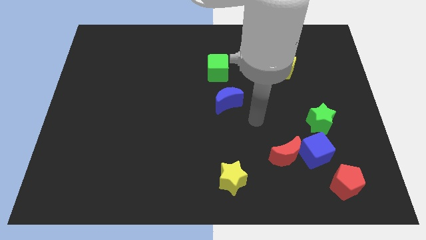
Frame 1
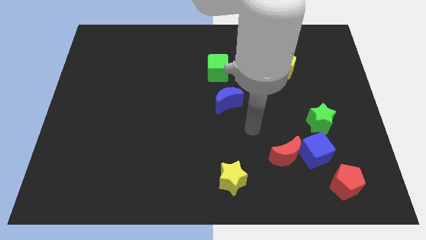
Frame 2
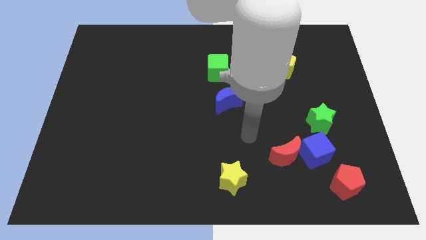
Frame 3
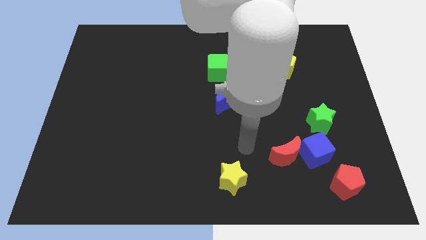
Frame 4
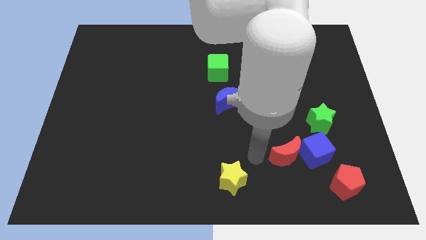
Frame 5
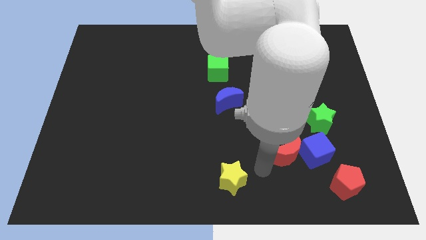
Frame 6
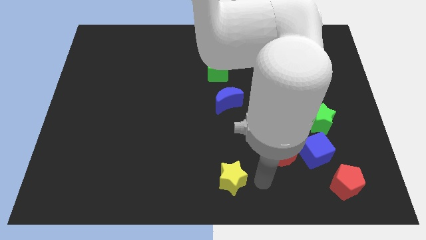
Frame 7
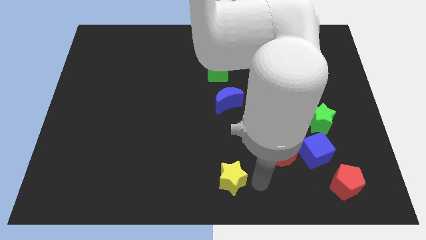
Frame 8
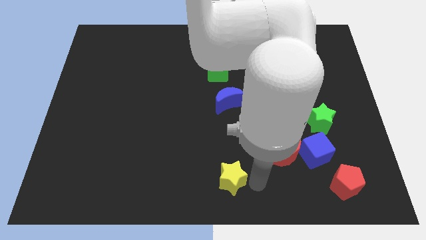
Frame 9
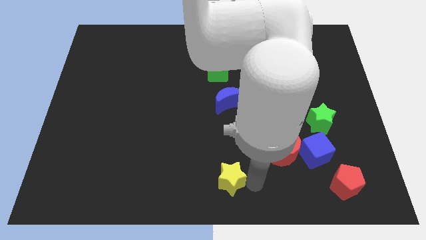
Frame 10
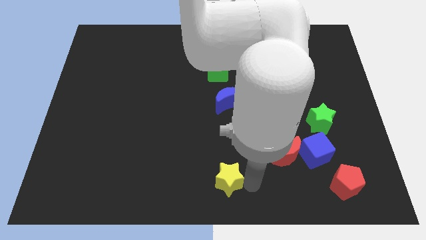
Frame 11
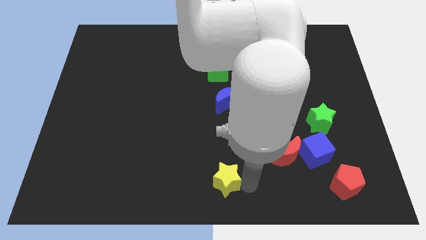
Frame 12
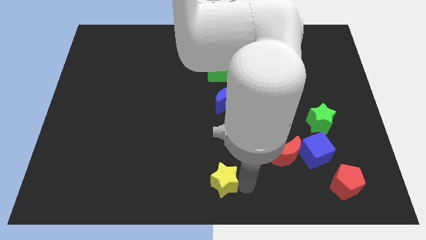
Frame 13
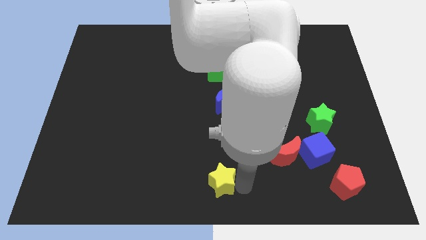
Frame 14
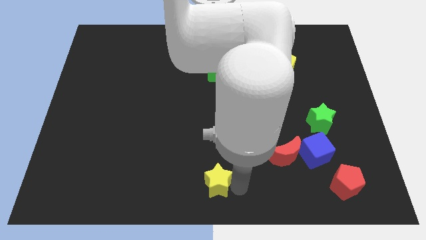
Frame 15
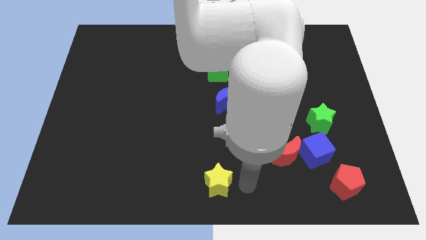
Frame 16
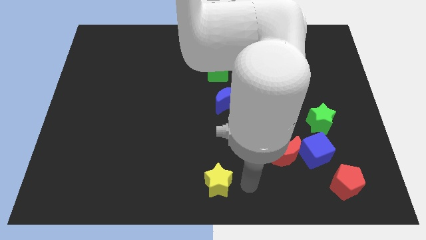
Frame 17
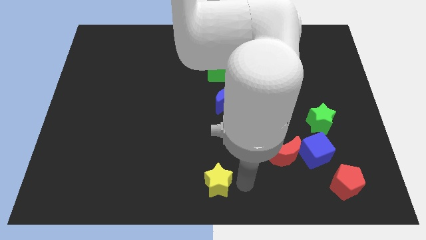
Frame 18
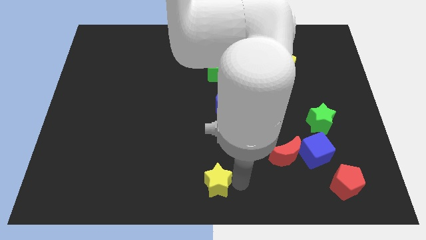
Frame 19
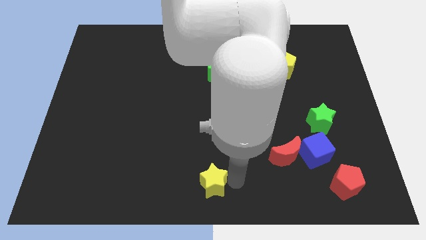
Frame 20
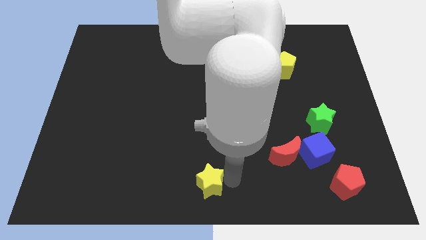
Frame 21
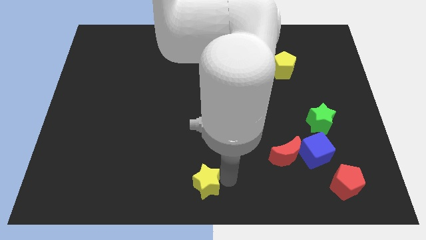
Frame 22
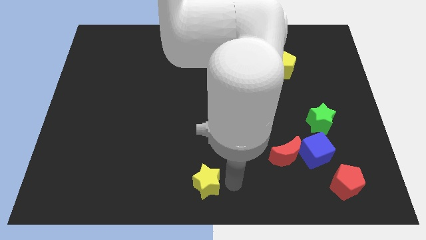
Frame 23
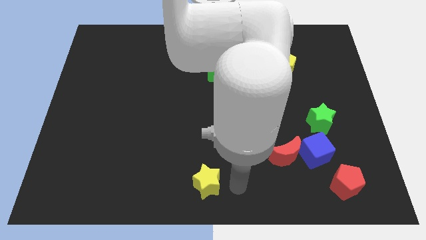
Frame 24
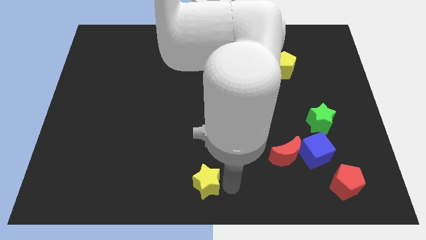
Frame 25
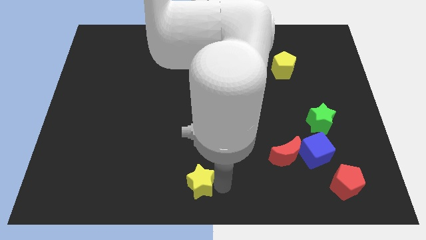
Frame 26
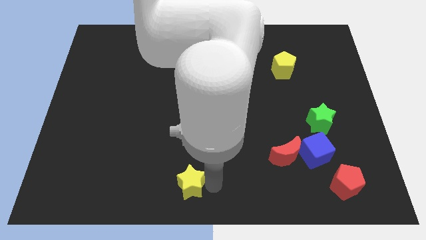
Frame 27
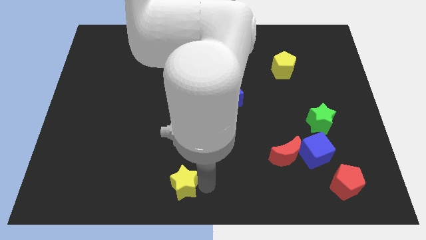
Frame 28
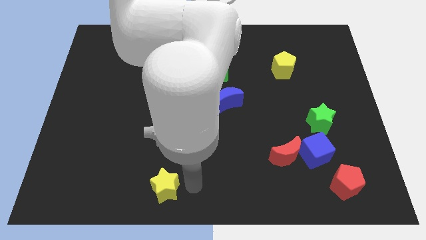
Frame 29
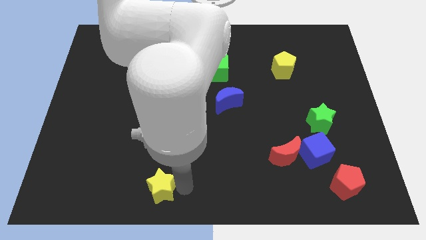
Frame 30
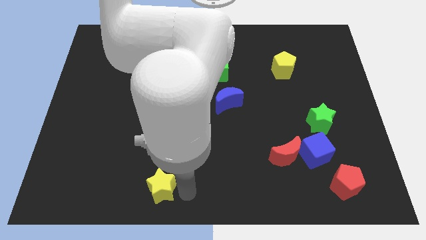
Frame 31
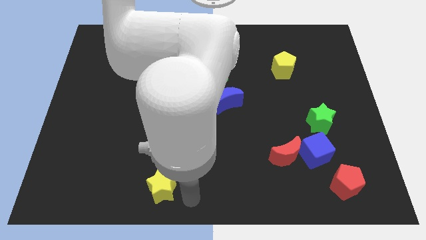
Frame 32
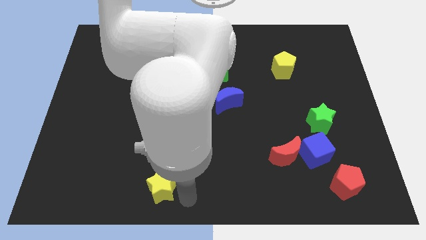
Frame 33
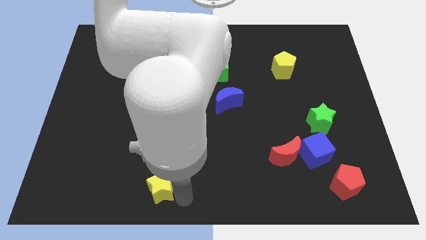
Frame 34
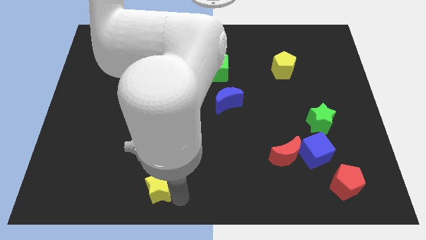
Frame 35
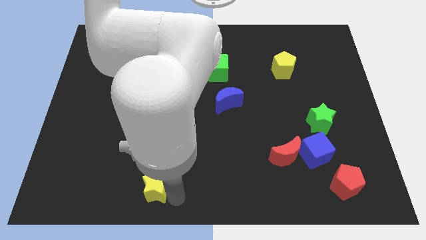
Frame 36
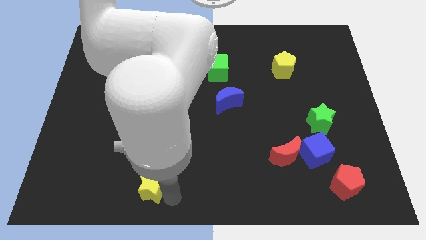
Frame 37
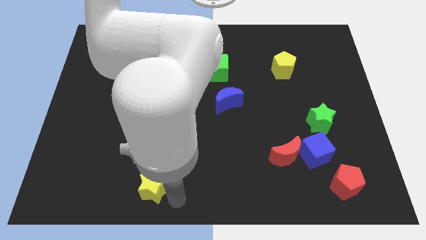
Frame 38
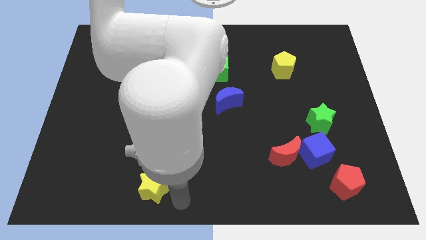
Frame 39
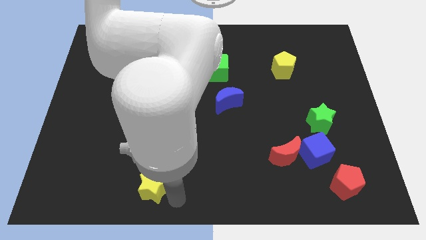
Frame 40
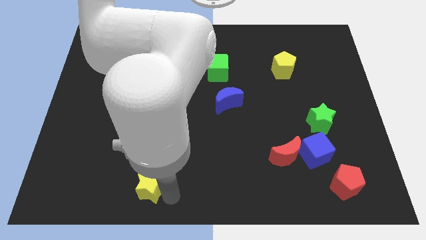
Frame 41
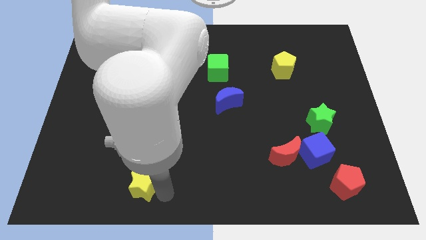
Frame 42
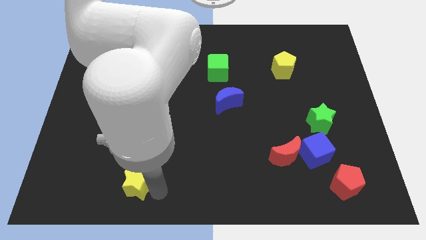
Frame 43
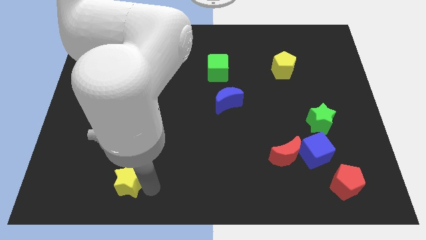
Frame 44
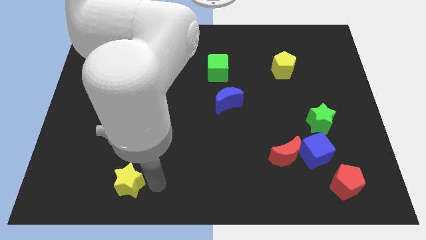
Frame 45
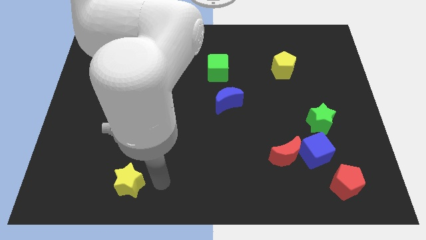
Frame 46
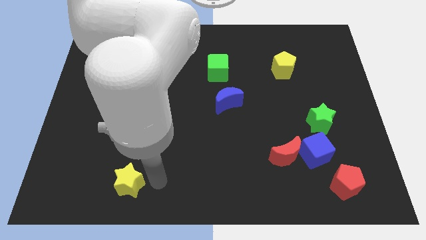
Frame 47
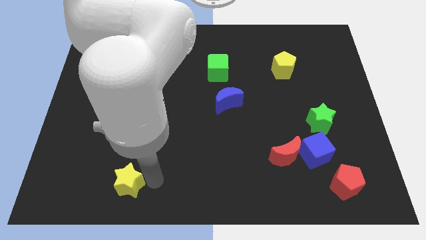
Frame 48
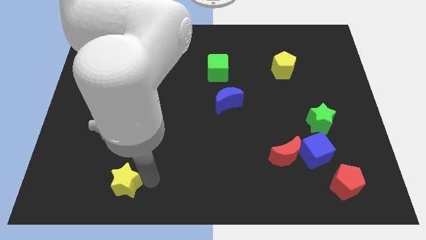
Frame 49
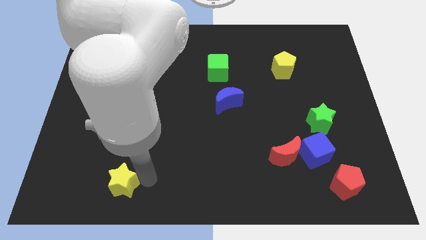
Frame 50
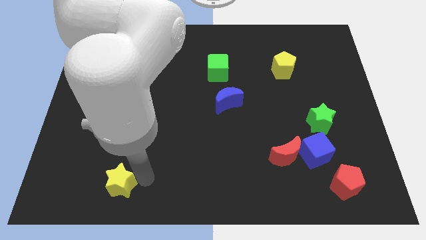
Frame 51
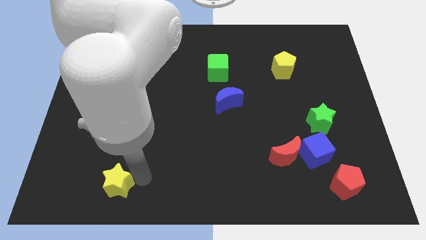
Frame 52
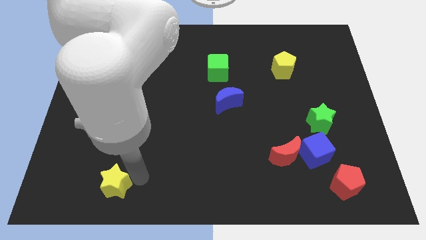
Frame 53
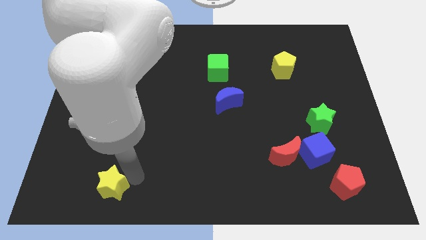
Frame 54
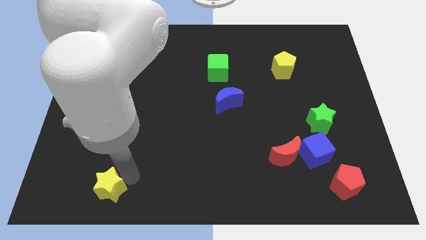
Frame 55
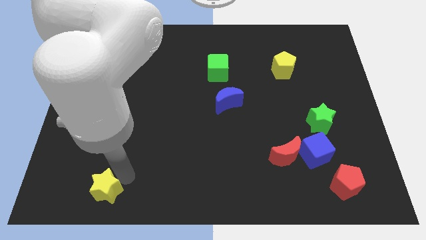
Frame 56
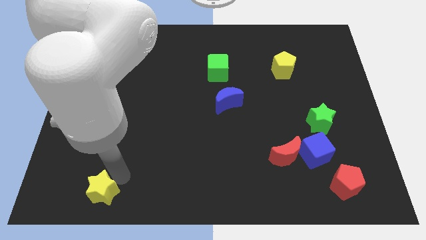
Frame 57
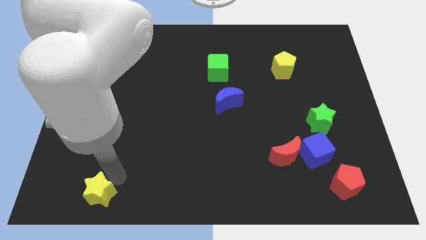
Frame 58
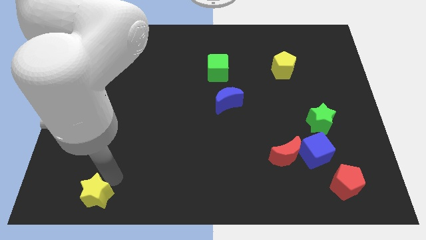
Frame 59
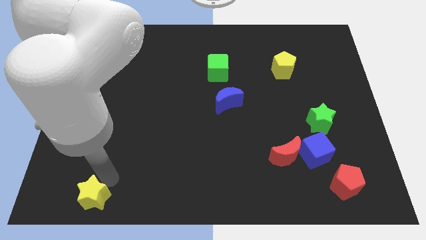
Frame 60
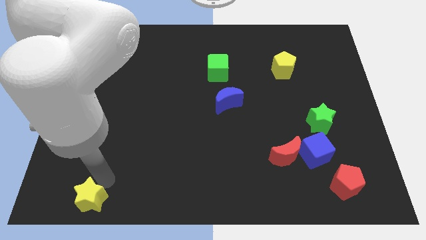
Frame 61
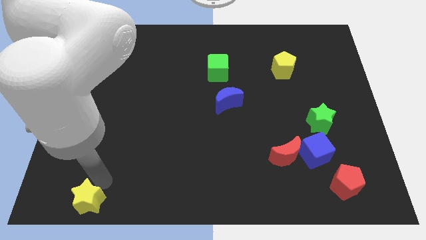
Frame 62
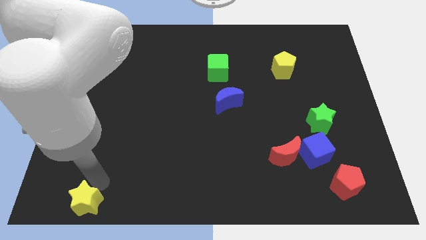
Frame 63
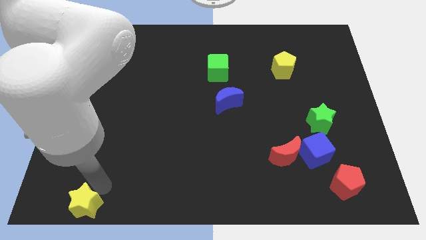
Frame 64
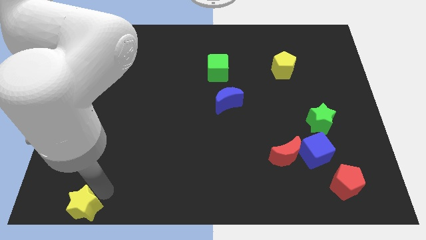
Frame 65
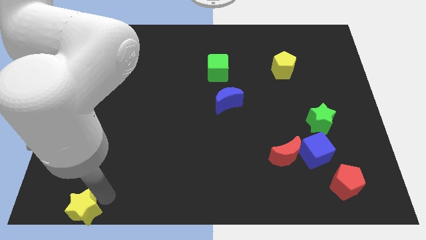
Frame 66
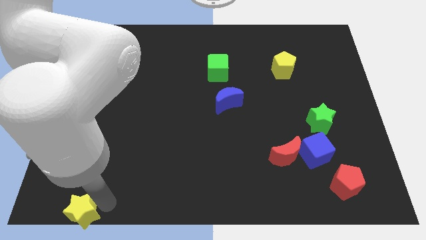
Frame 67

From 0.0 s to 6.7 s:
move the yellow star to the lower left corner
